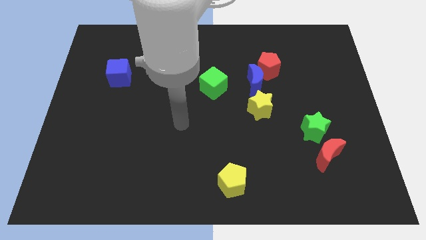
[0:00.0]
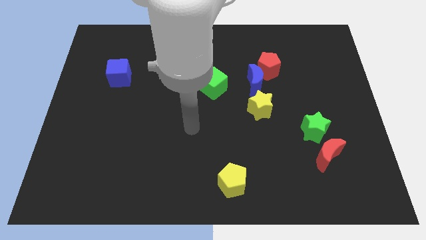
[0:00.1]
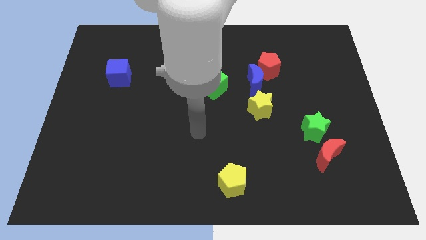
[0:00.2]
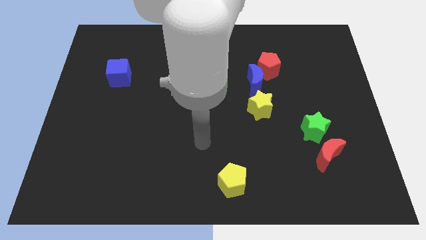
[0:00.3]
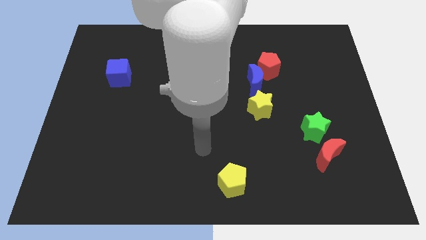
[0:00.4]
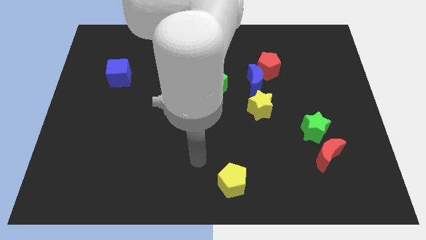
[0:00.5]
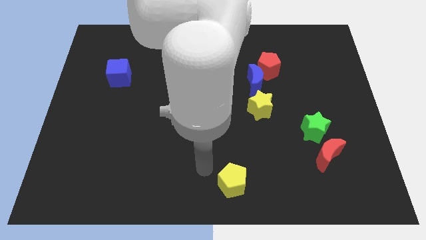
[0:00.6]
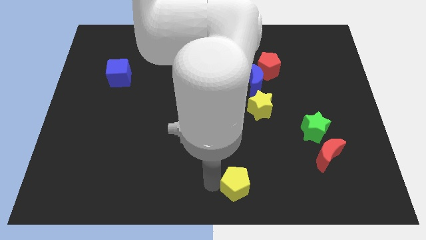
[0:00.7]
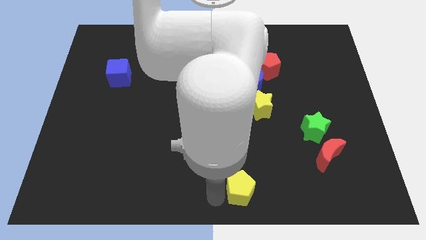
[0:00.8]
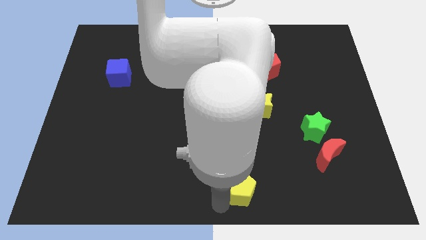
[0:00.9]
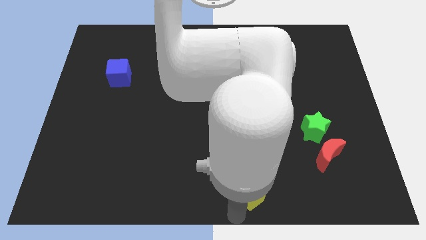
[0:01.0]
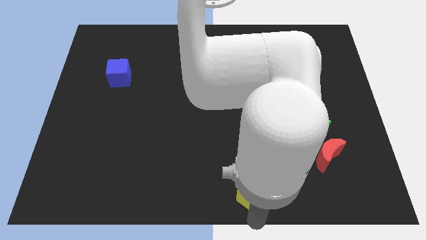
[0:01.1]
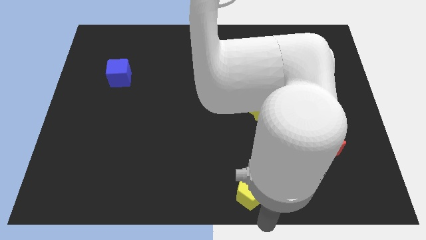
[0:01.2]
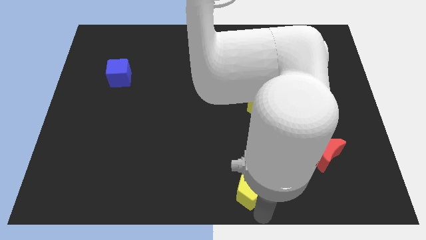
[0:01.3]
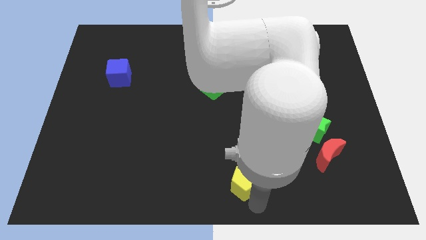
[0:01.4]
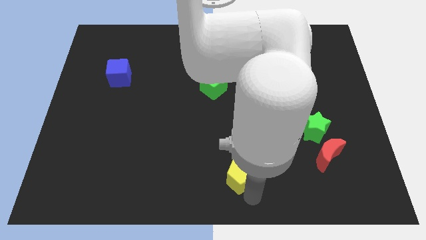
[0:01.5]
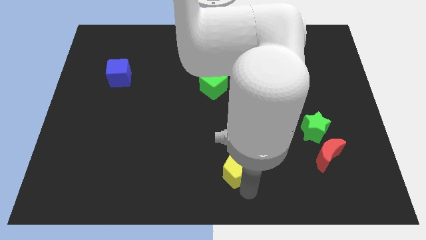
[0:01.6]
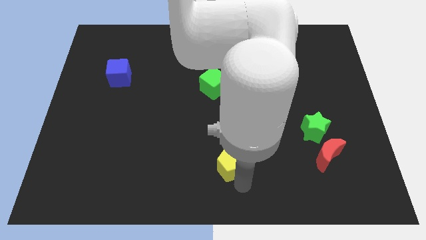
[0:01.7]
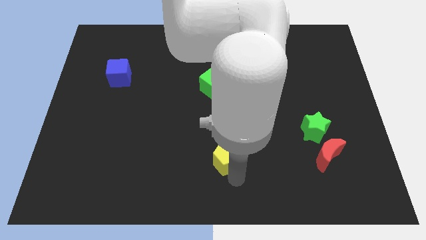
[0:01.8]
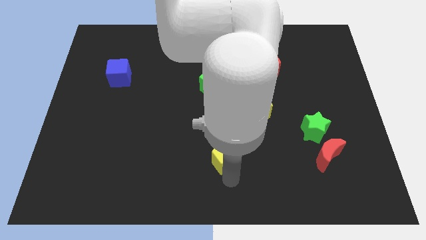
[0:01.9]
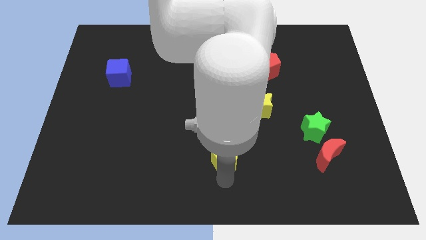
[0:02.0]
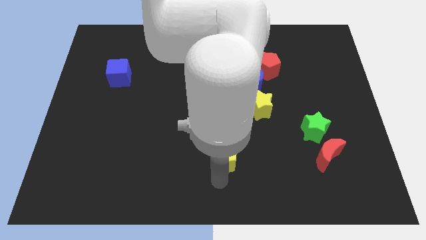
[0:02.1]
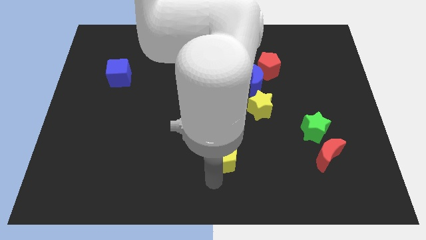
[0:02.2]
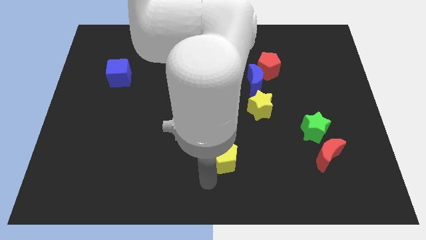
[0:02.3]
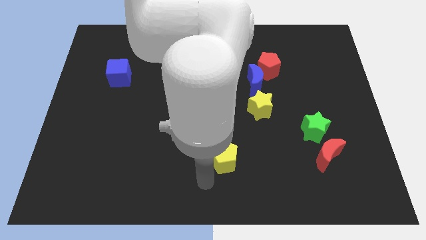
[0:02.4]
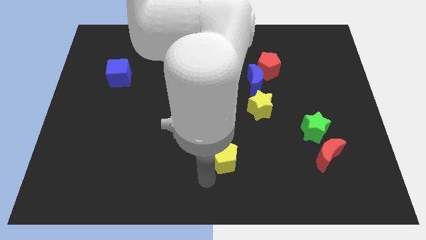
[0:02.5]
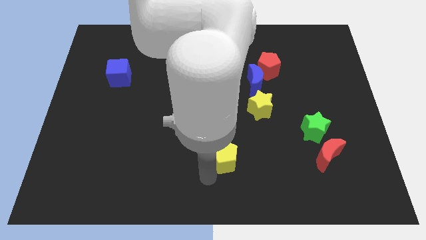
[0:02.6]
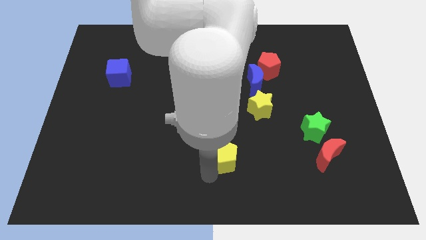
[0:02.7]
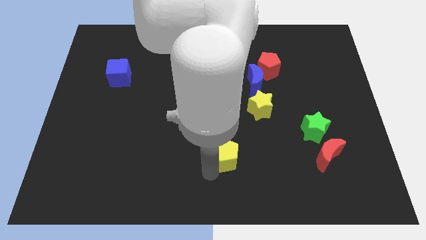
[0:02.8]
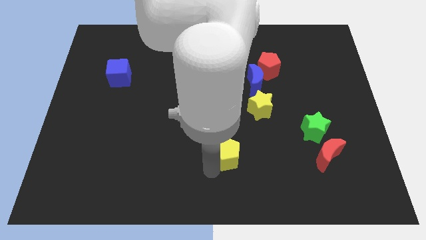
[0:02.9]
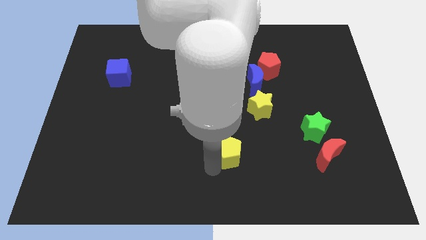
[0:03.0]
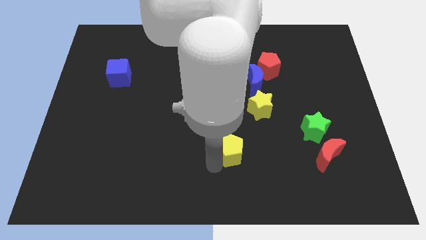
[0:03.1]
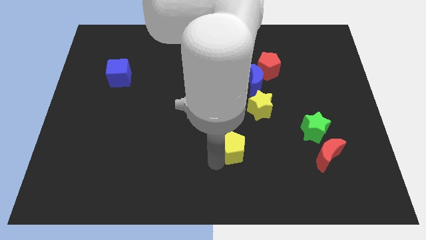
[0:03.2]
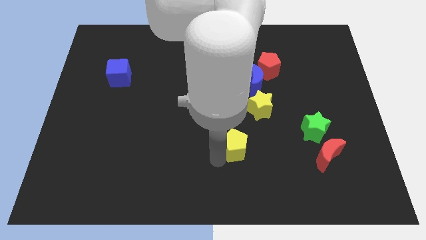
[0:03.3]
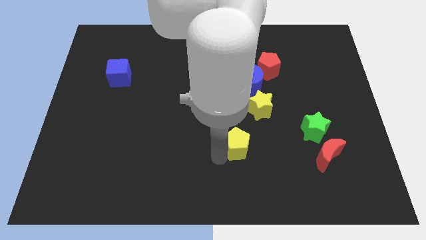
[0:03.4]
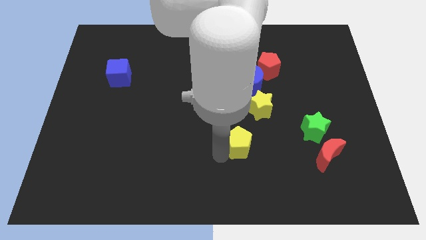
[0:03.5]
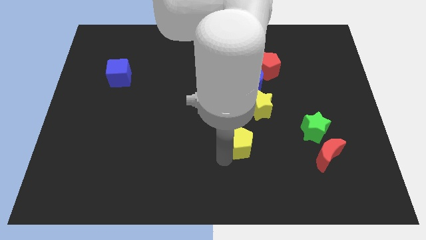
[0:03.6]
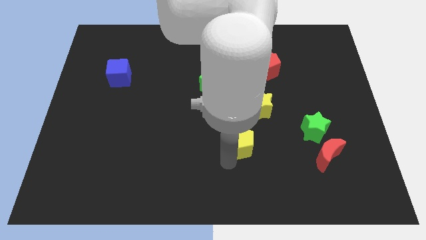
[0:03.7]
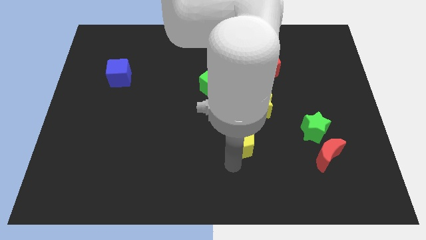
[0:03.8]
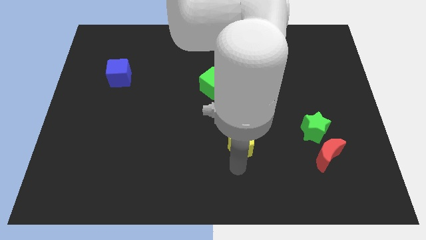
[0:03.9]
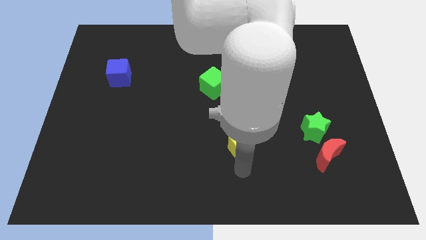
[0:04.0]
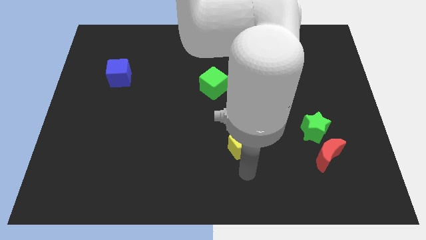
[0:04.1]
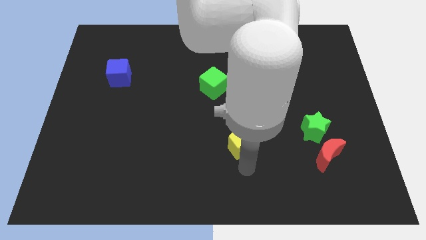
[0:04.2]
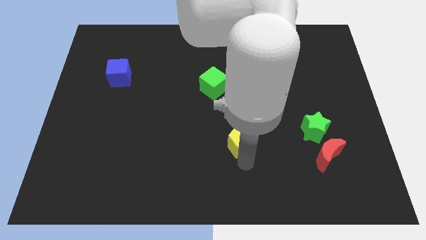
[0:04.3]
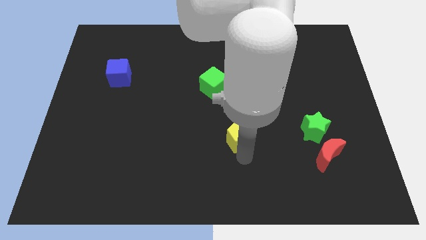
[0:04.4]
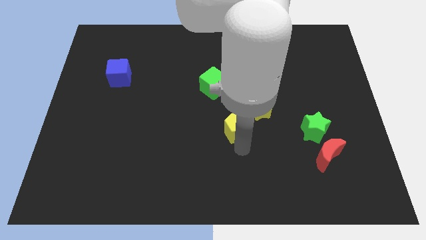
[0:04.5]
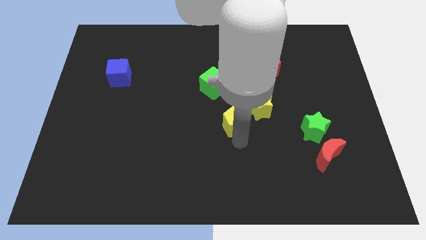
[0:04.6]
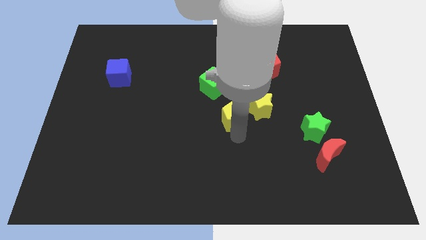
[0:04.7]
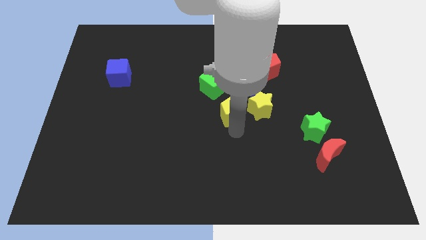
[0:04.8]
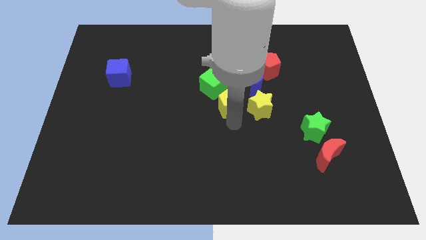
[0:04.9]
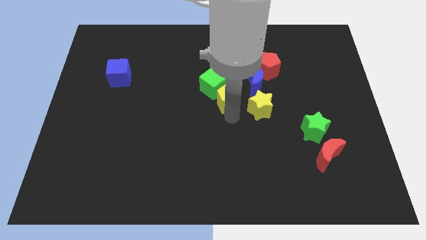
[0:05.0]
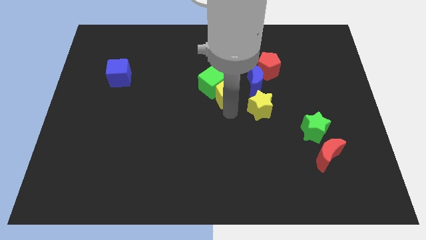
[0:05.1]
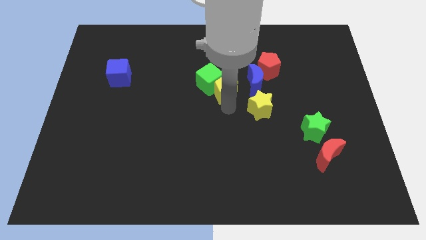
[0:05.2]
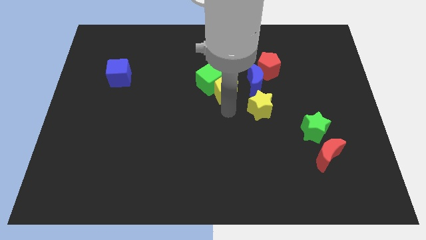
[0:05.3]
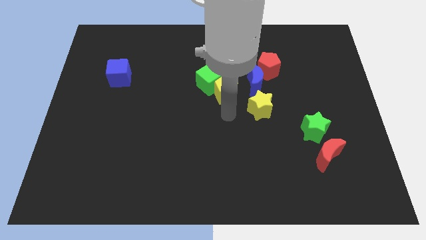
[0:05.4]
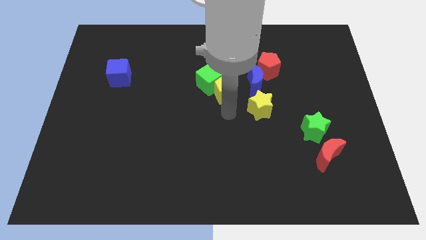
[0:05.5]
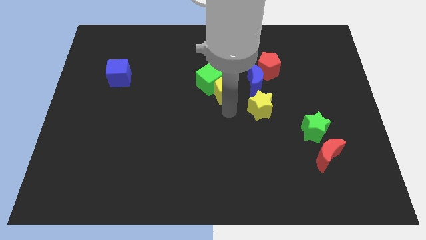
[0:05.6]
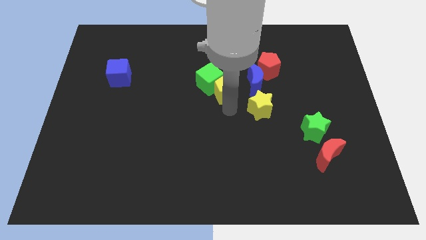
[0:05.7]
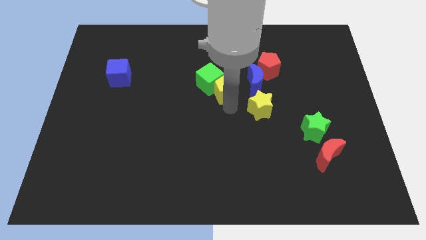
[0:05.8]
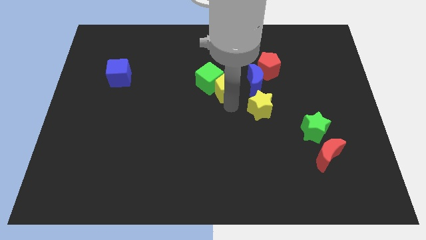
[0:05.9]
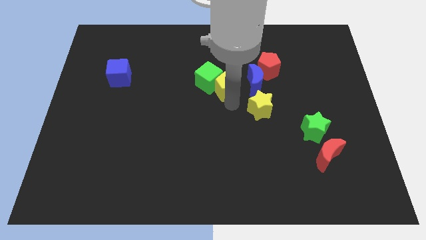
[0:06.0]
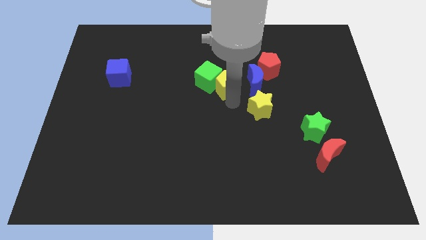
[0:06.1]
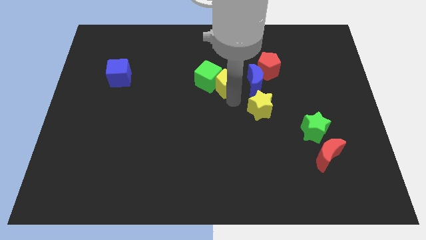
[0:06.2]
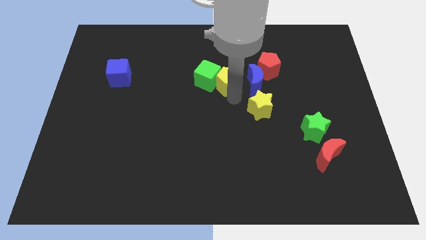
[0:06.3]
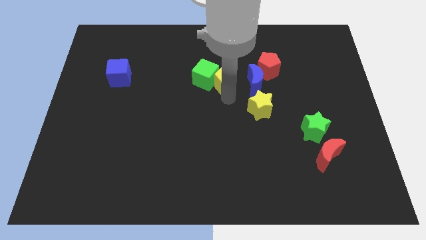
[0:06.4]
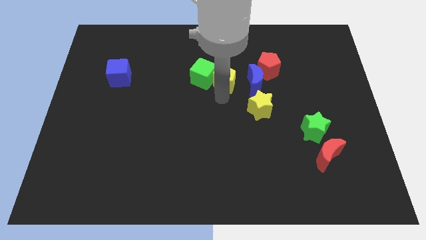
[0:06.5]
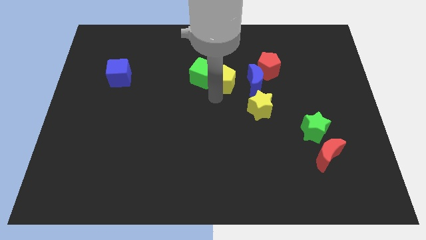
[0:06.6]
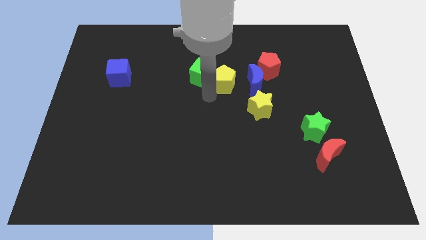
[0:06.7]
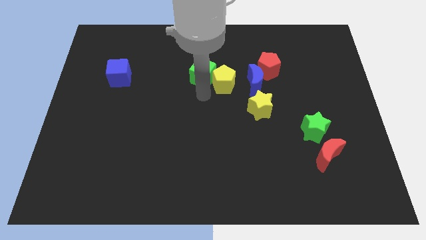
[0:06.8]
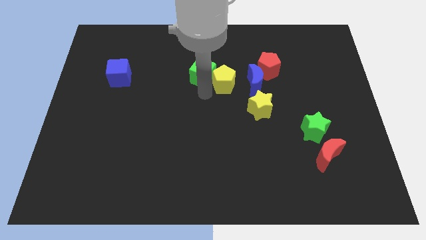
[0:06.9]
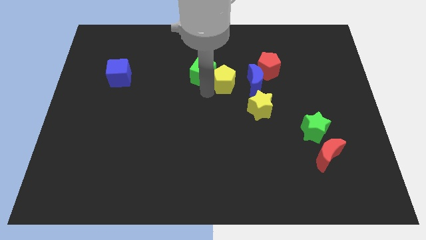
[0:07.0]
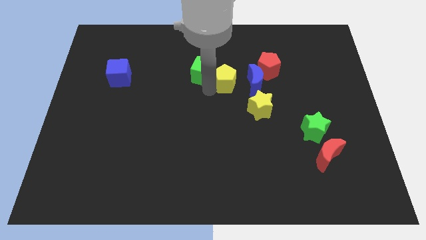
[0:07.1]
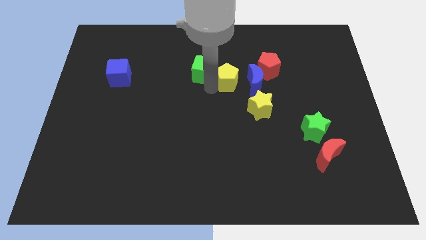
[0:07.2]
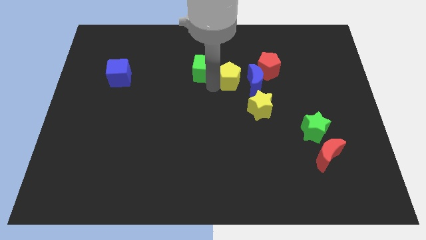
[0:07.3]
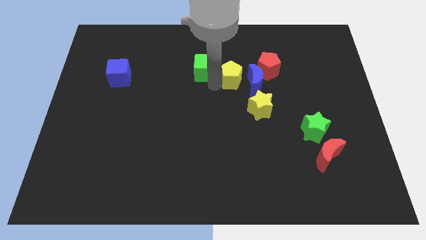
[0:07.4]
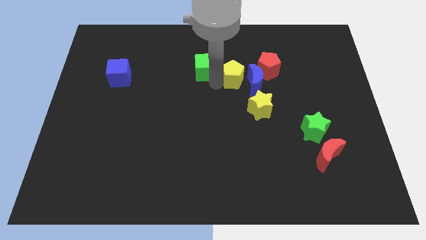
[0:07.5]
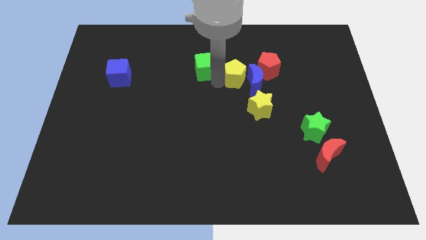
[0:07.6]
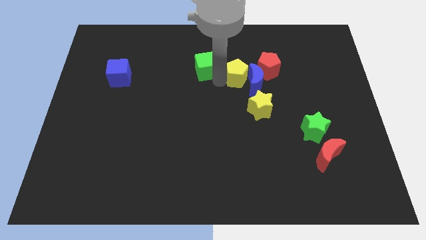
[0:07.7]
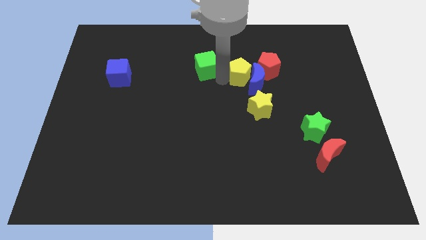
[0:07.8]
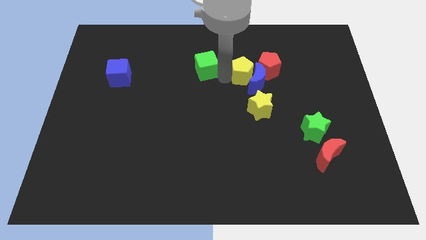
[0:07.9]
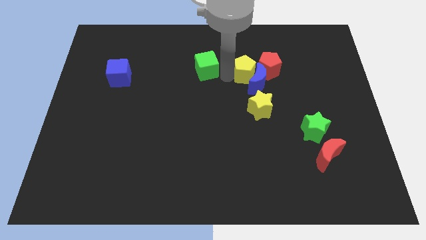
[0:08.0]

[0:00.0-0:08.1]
slide the yellow pentagon close to the red pentagon
